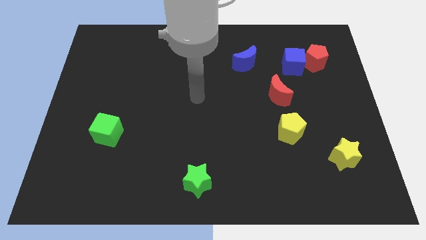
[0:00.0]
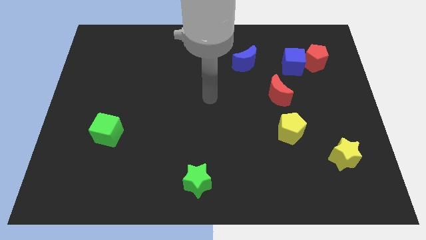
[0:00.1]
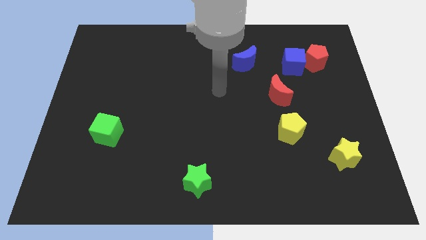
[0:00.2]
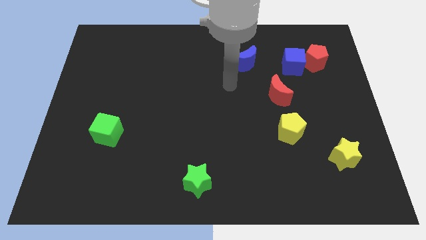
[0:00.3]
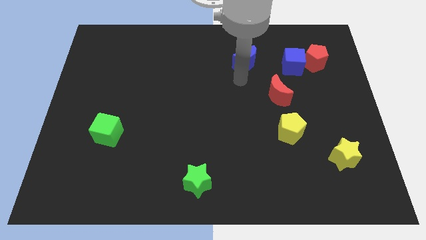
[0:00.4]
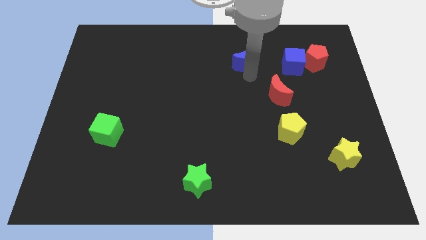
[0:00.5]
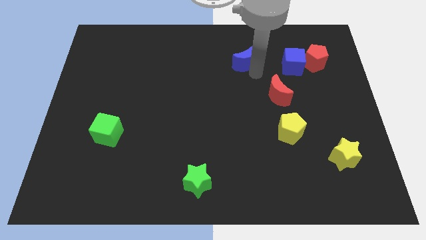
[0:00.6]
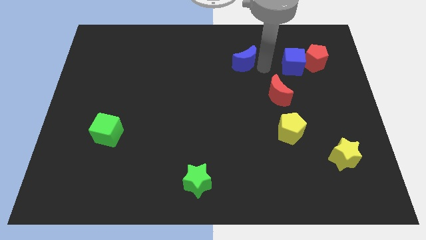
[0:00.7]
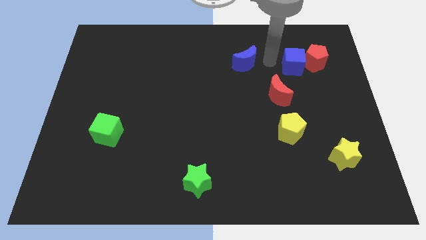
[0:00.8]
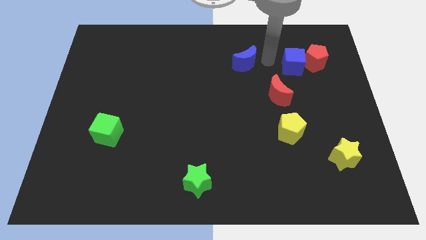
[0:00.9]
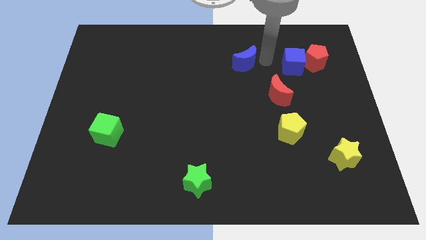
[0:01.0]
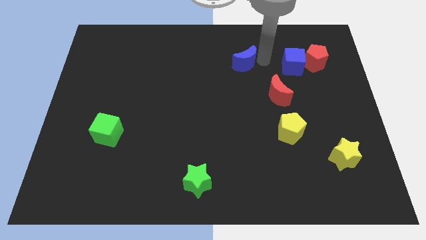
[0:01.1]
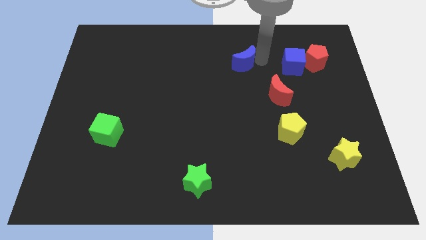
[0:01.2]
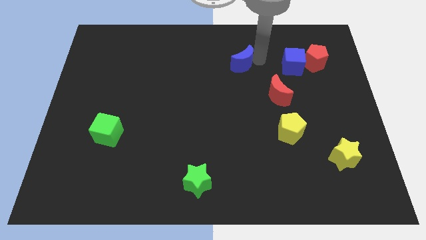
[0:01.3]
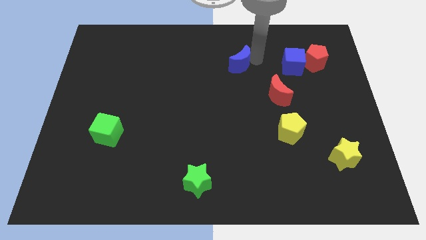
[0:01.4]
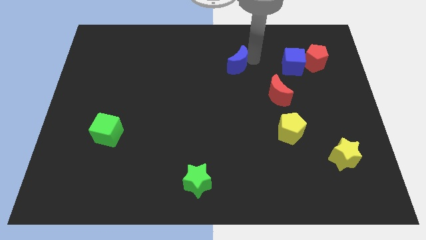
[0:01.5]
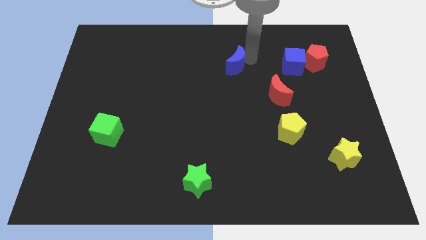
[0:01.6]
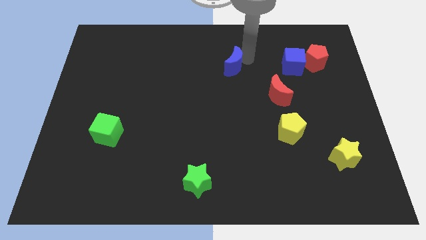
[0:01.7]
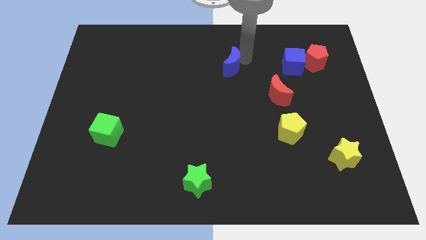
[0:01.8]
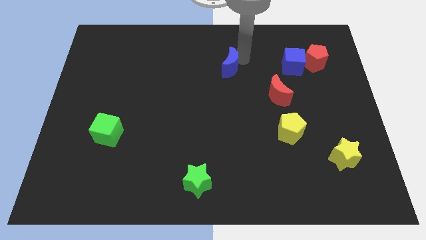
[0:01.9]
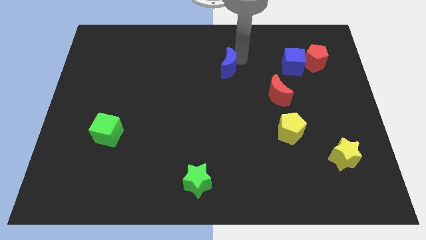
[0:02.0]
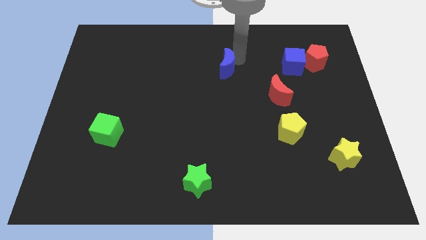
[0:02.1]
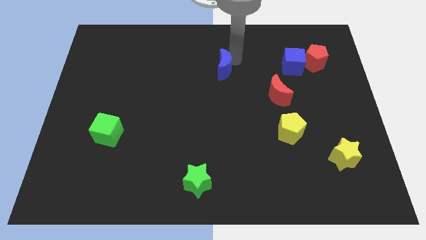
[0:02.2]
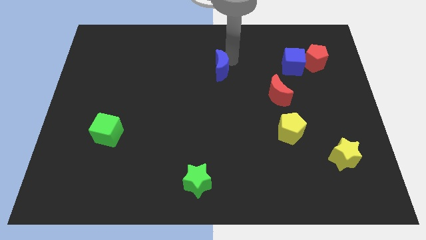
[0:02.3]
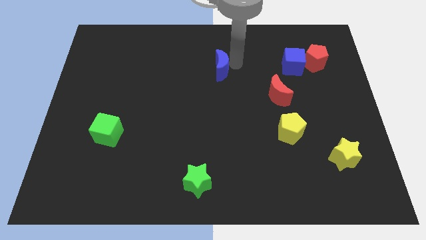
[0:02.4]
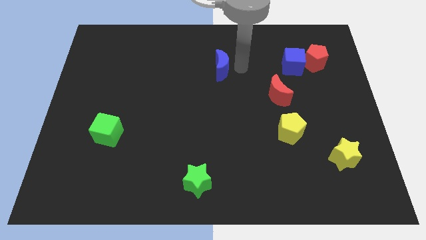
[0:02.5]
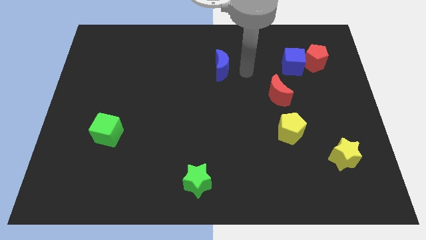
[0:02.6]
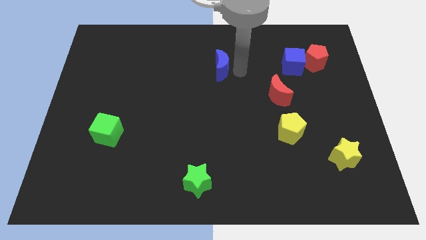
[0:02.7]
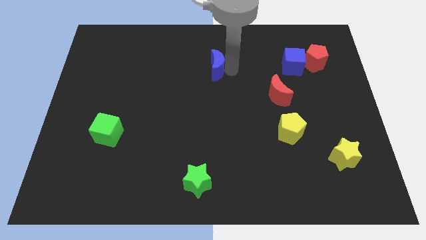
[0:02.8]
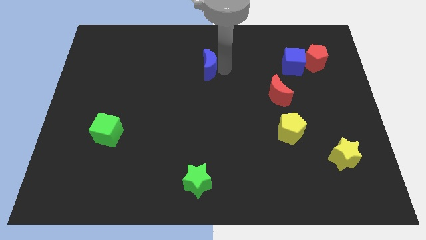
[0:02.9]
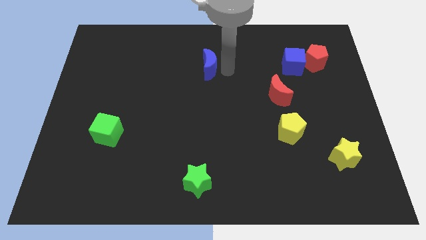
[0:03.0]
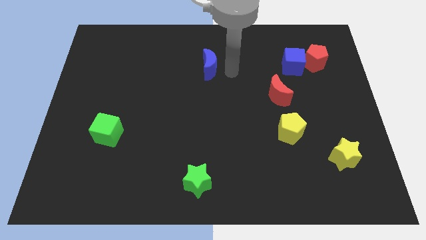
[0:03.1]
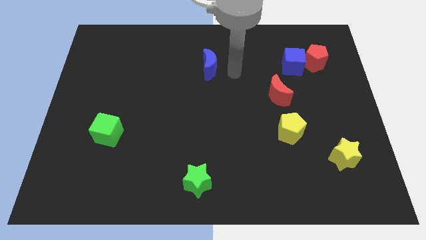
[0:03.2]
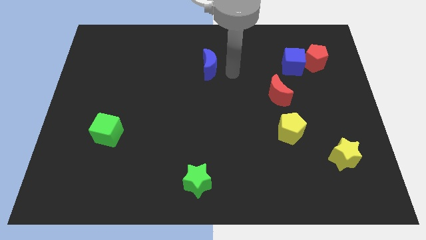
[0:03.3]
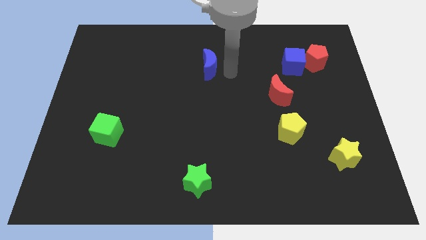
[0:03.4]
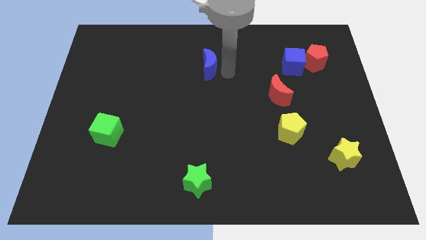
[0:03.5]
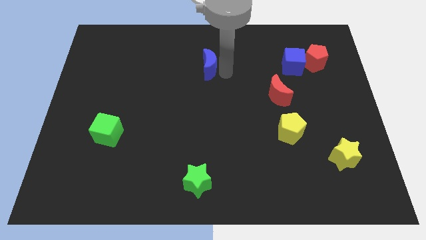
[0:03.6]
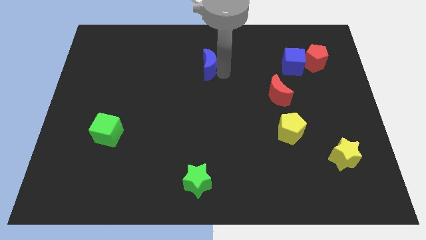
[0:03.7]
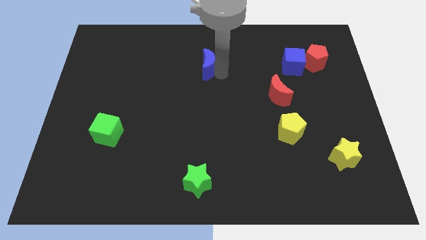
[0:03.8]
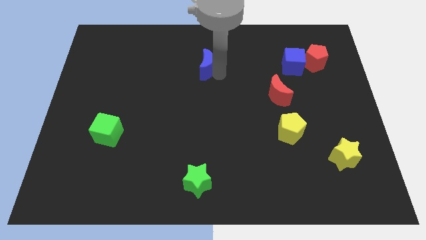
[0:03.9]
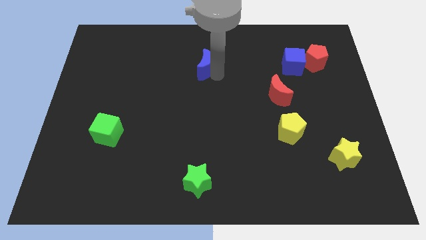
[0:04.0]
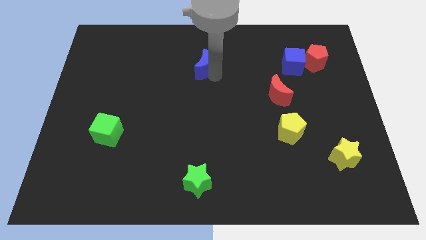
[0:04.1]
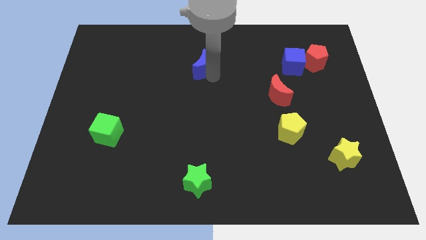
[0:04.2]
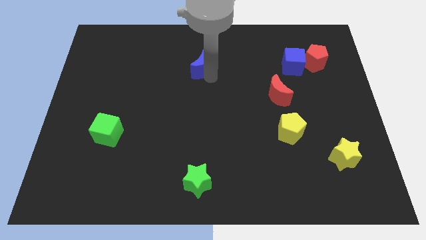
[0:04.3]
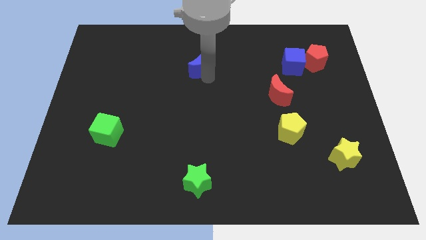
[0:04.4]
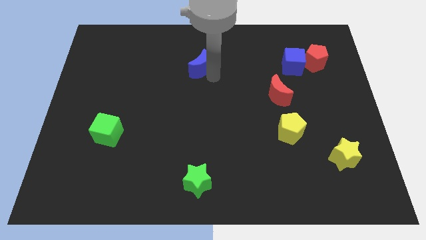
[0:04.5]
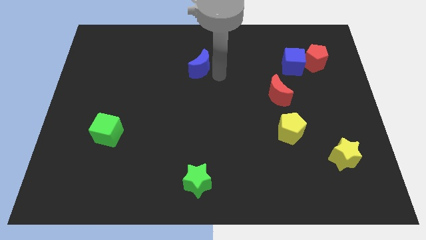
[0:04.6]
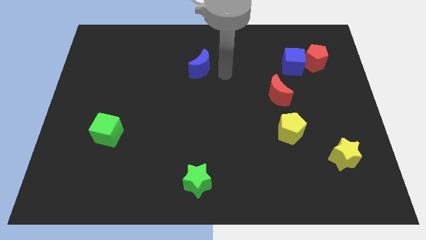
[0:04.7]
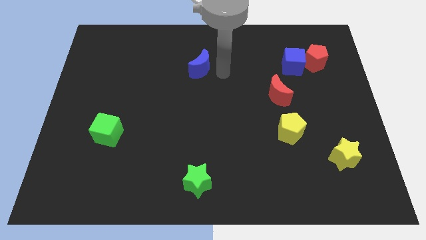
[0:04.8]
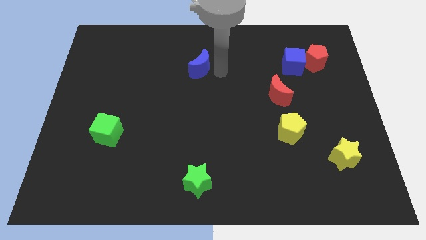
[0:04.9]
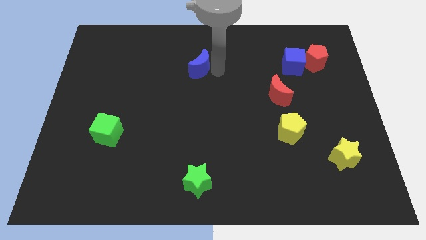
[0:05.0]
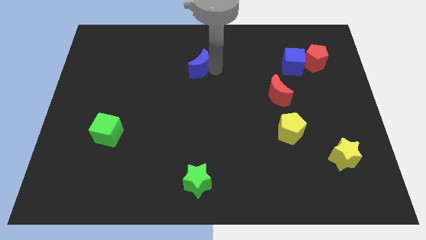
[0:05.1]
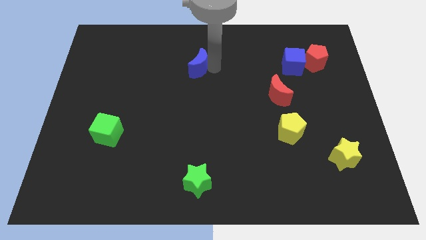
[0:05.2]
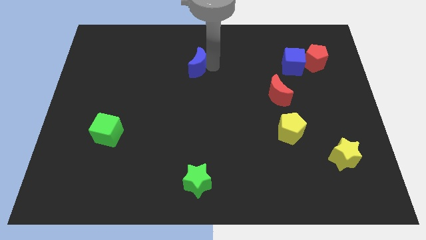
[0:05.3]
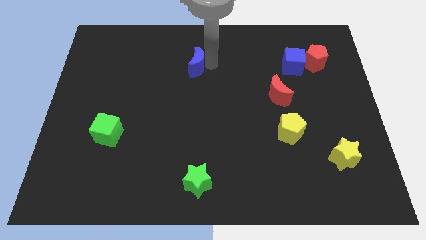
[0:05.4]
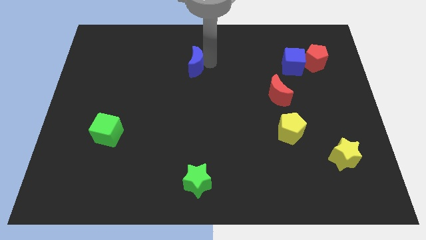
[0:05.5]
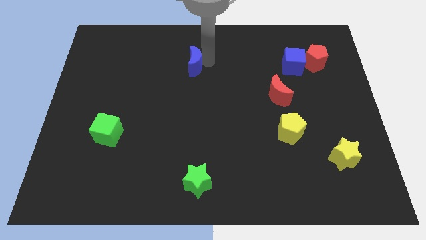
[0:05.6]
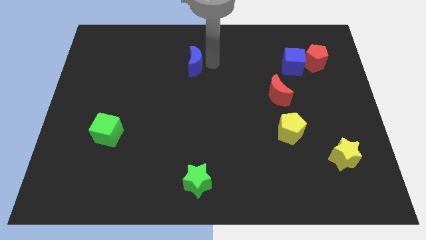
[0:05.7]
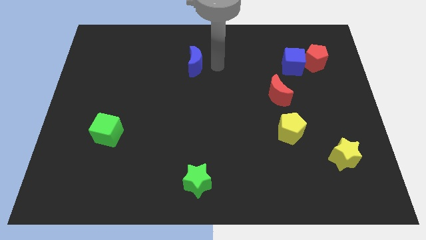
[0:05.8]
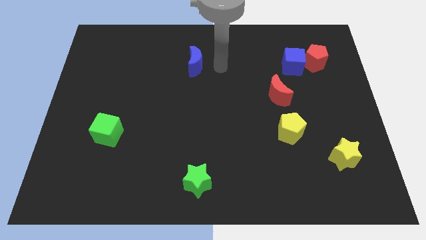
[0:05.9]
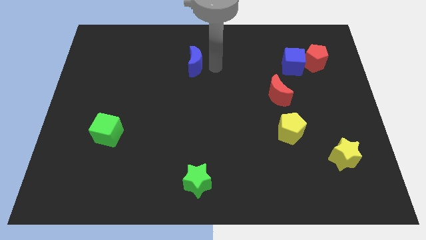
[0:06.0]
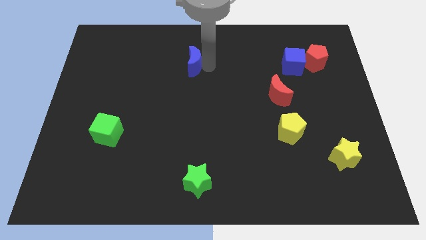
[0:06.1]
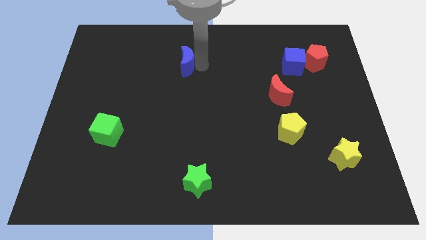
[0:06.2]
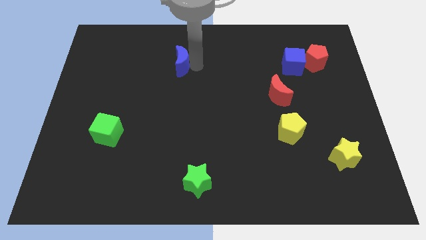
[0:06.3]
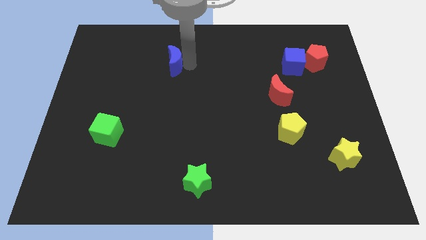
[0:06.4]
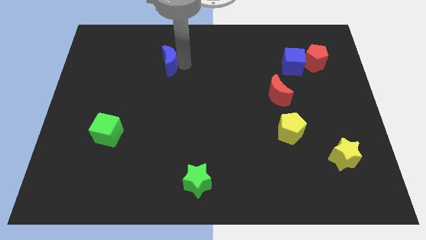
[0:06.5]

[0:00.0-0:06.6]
slide the blue moon left
